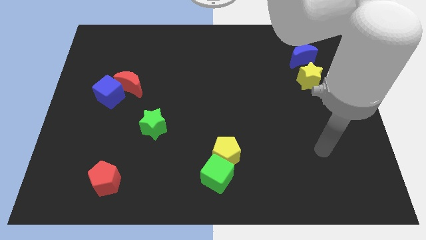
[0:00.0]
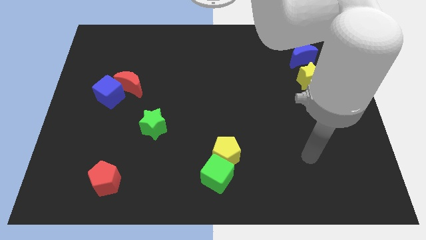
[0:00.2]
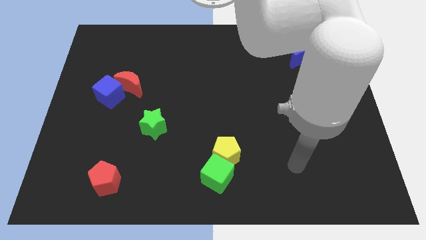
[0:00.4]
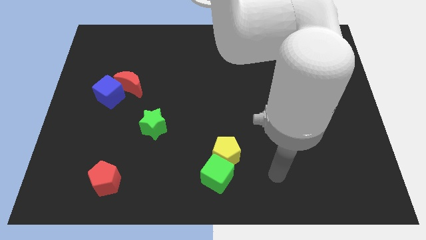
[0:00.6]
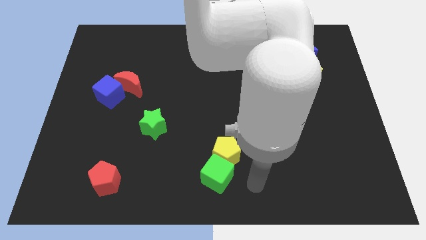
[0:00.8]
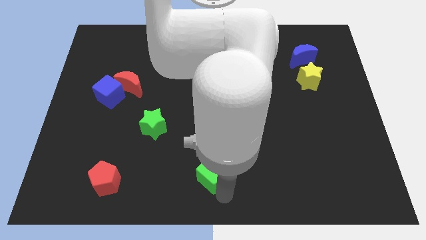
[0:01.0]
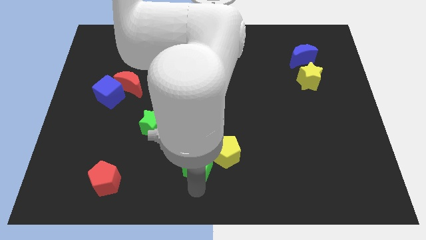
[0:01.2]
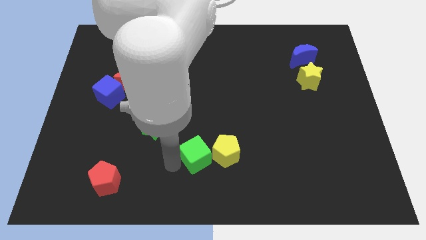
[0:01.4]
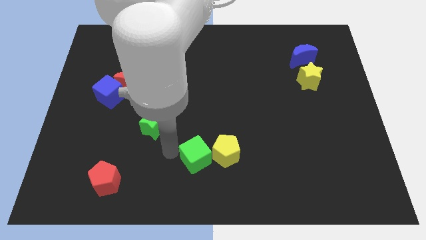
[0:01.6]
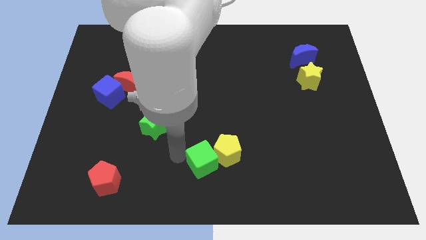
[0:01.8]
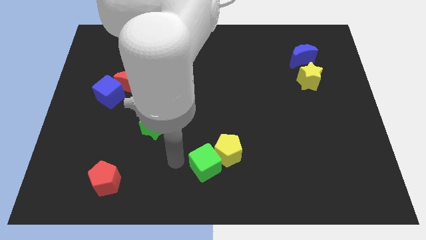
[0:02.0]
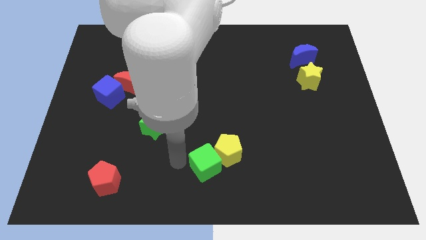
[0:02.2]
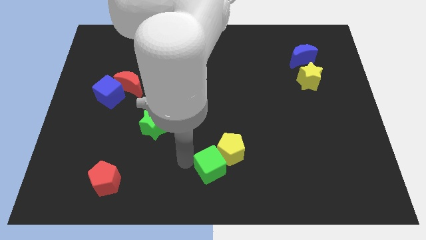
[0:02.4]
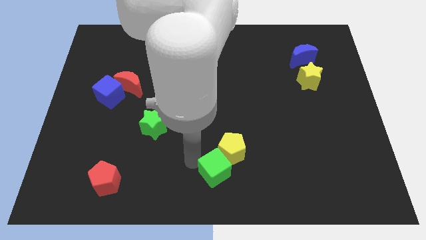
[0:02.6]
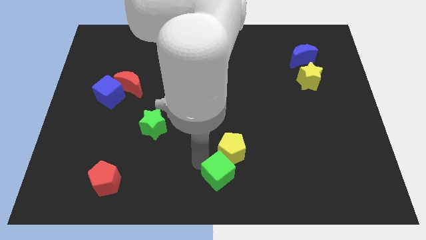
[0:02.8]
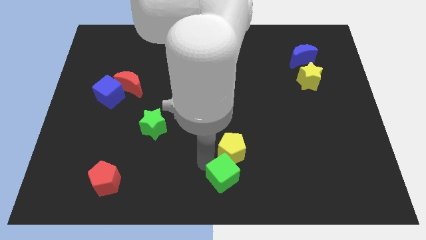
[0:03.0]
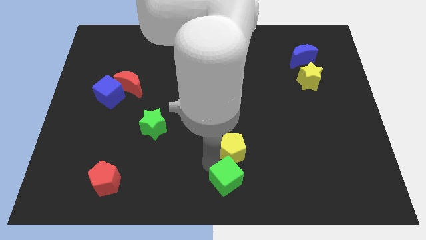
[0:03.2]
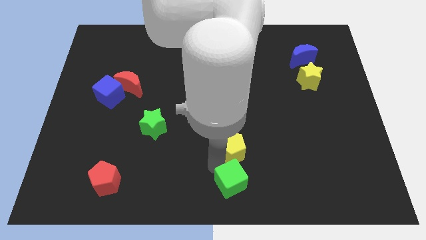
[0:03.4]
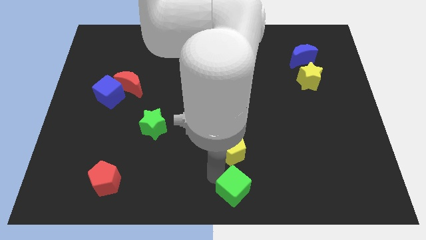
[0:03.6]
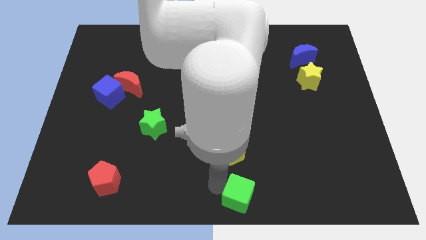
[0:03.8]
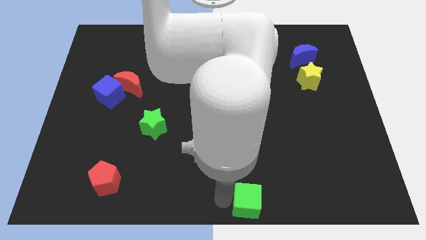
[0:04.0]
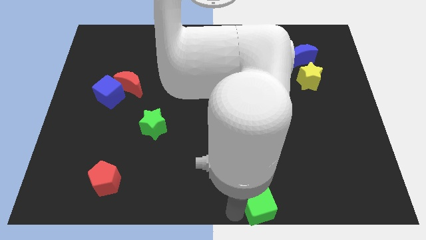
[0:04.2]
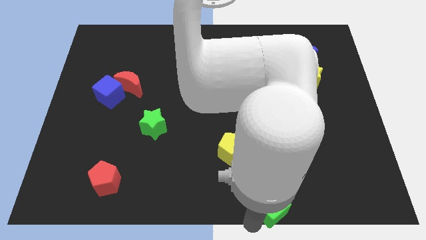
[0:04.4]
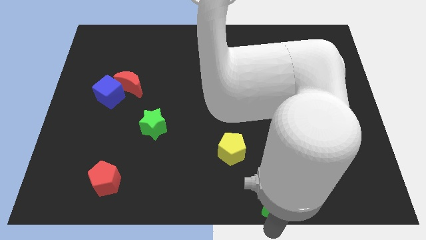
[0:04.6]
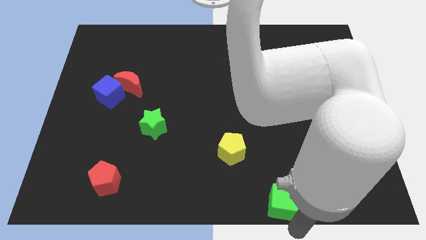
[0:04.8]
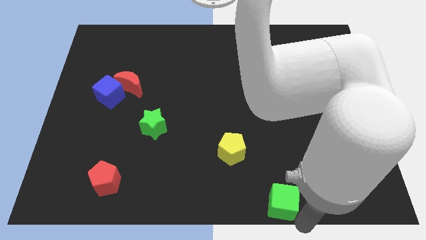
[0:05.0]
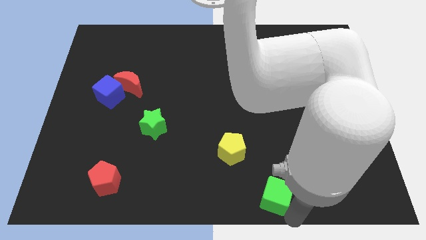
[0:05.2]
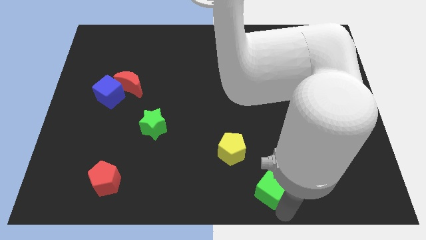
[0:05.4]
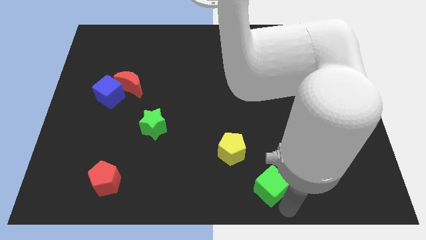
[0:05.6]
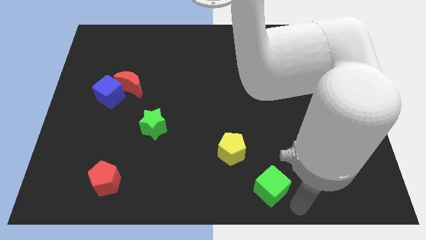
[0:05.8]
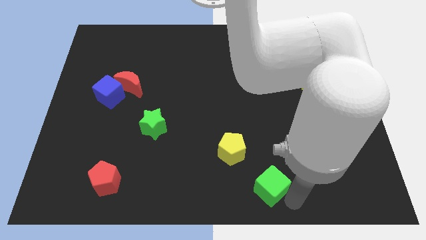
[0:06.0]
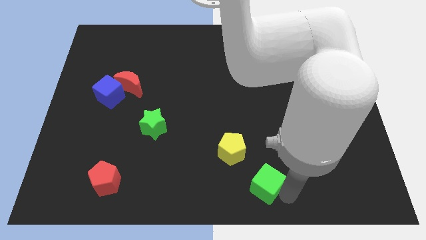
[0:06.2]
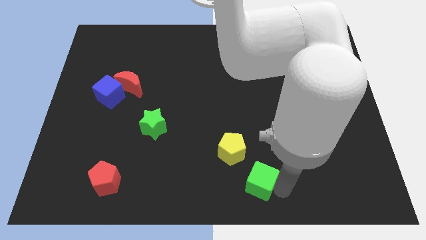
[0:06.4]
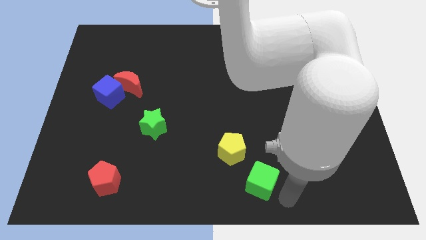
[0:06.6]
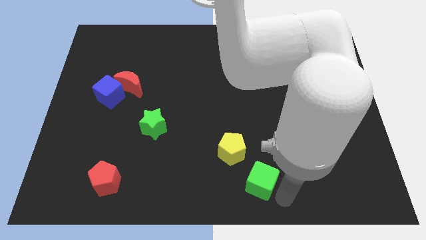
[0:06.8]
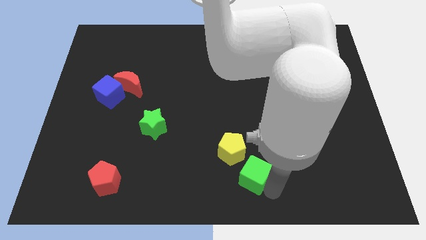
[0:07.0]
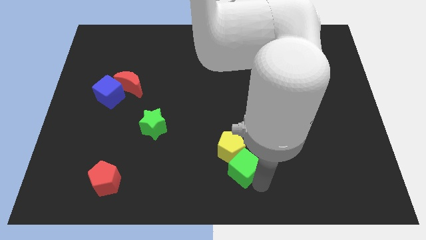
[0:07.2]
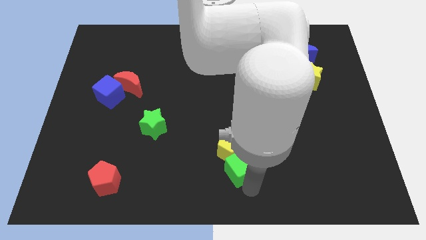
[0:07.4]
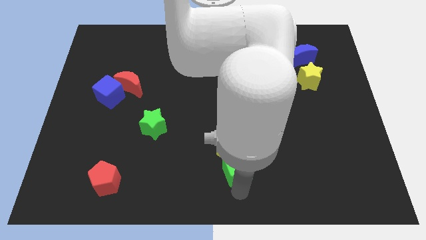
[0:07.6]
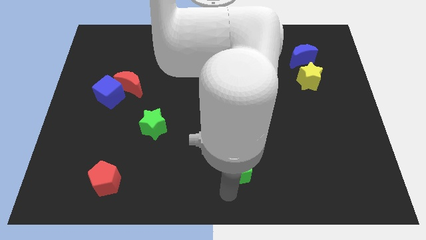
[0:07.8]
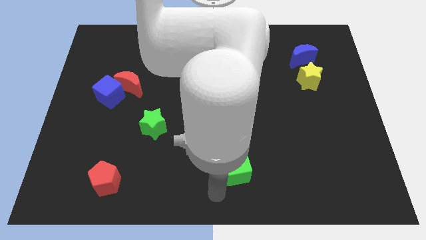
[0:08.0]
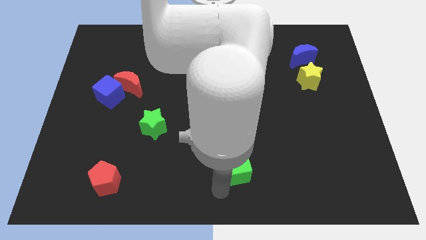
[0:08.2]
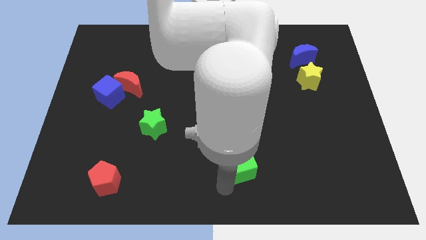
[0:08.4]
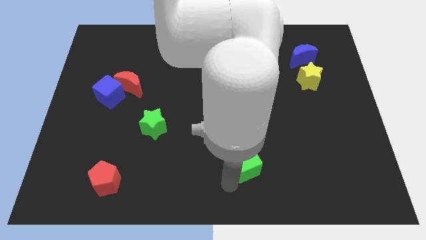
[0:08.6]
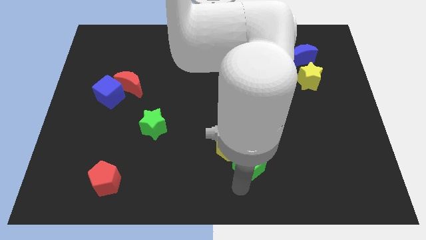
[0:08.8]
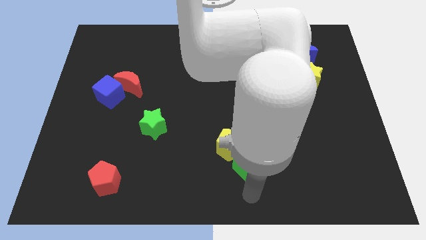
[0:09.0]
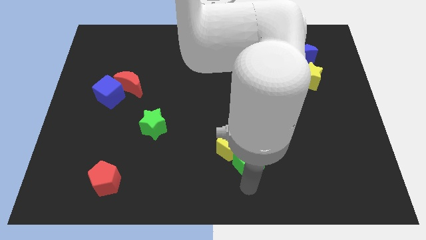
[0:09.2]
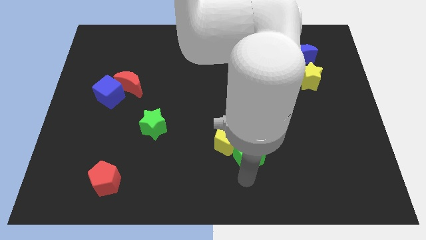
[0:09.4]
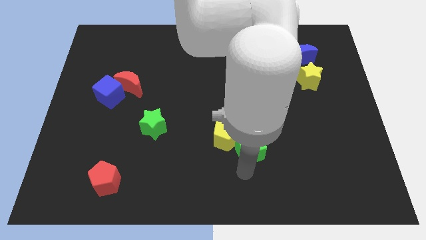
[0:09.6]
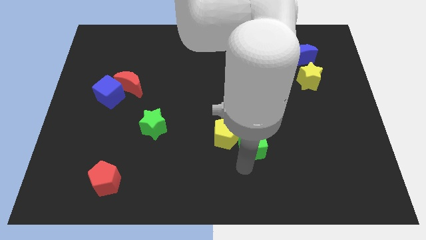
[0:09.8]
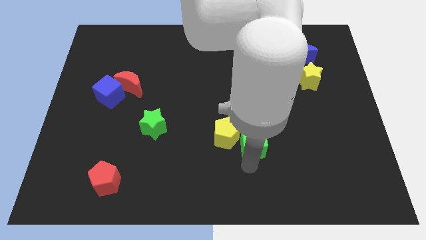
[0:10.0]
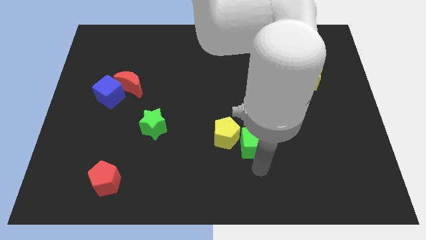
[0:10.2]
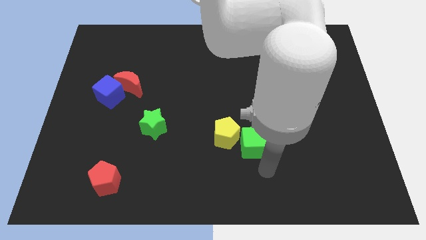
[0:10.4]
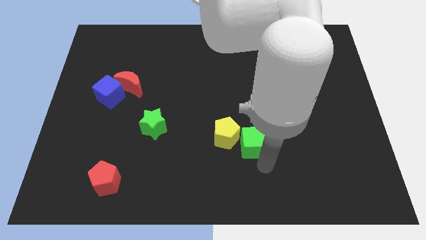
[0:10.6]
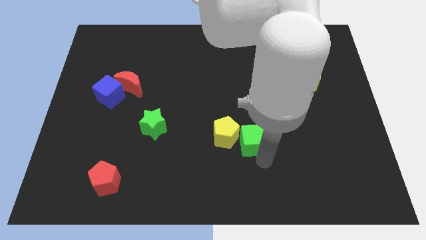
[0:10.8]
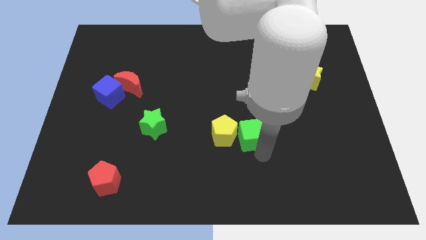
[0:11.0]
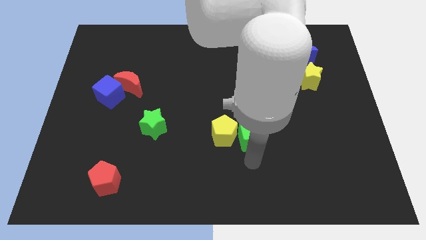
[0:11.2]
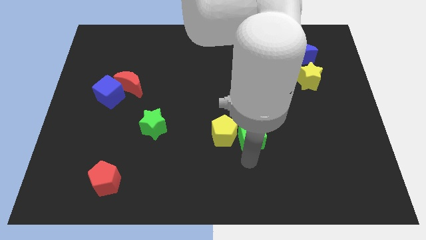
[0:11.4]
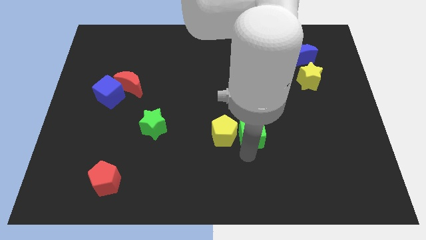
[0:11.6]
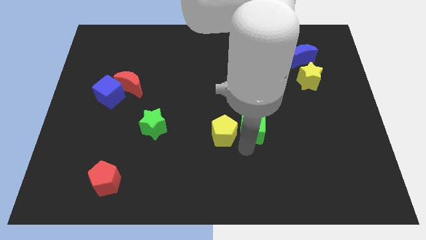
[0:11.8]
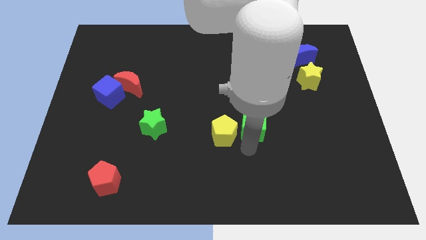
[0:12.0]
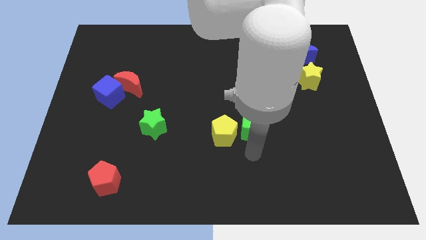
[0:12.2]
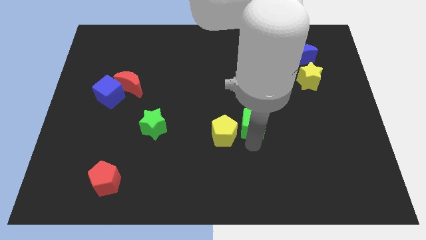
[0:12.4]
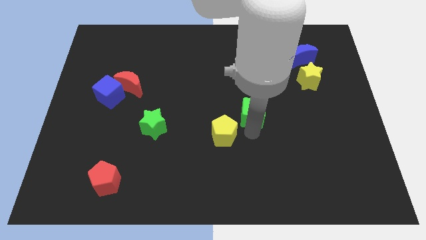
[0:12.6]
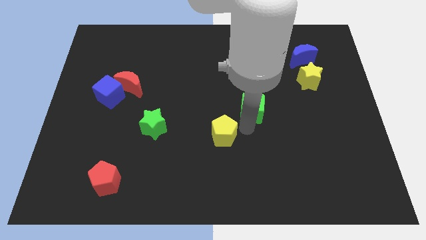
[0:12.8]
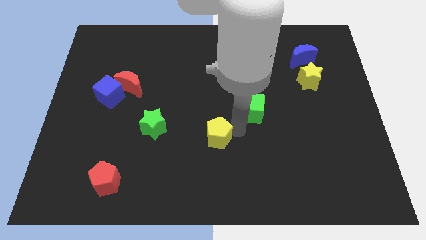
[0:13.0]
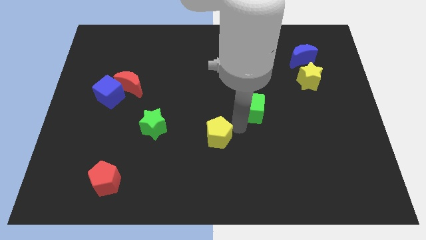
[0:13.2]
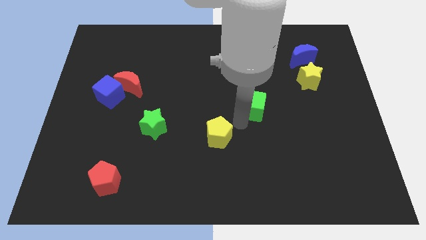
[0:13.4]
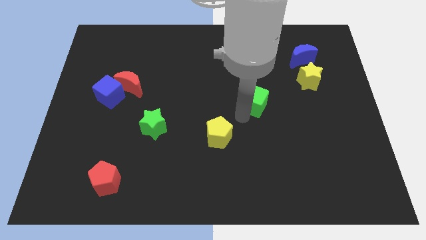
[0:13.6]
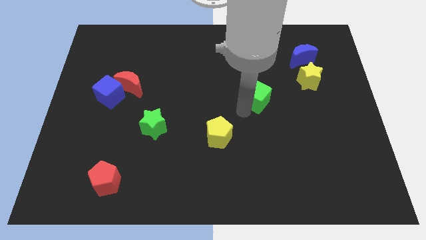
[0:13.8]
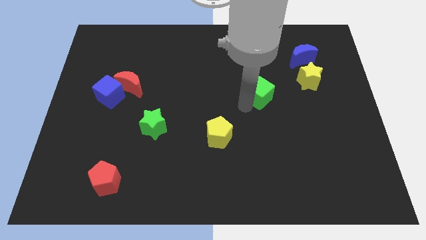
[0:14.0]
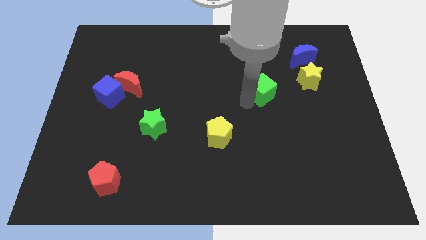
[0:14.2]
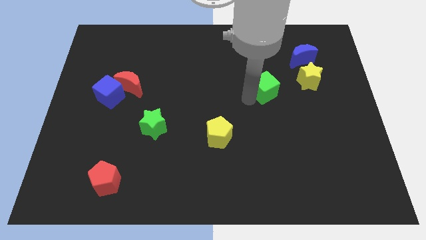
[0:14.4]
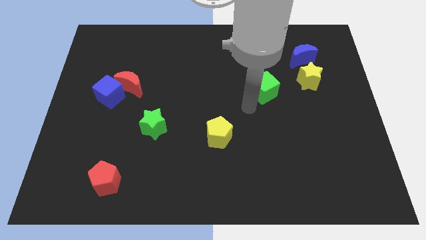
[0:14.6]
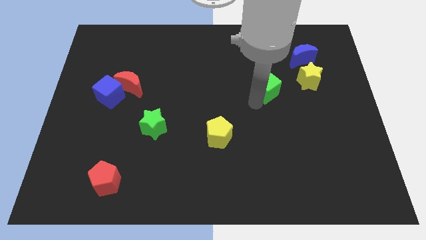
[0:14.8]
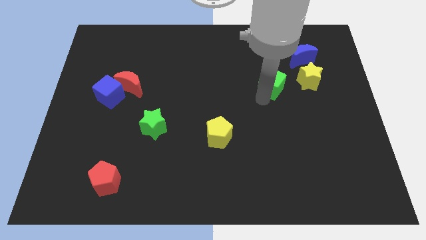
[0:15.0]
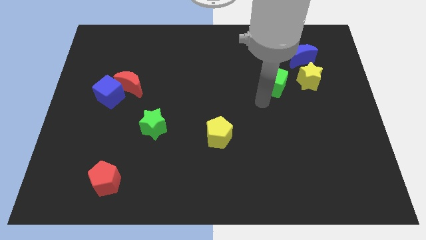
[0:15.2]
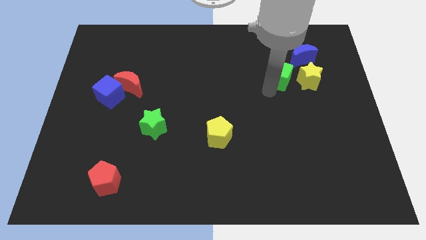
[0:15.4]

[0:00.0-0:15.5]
put the green cube to the top left of the yellow star
